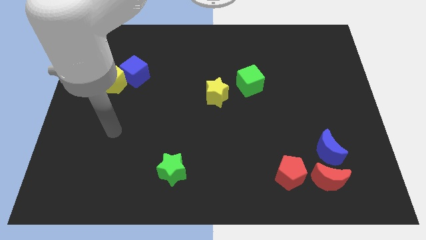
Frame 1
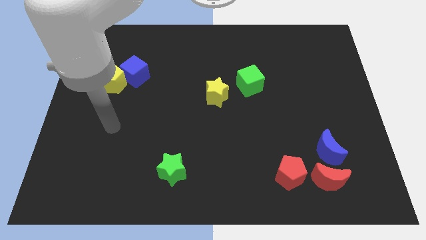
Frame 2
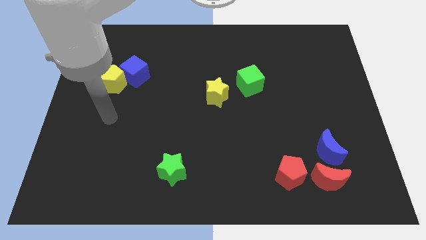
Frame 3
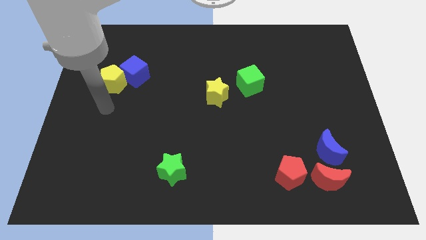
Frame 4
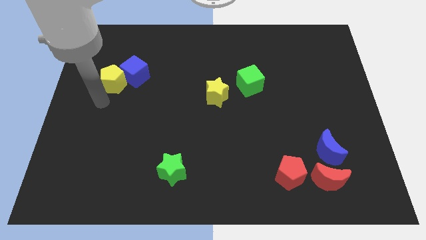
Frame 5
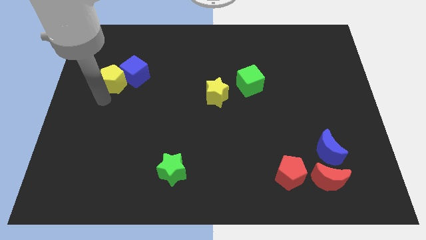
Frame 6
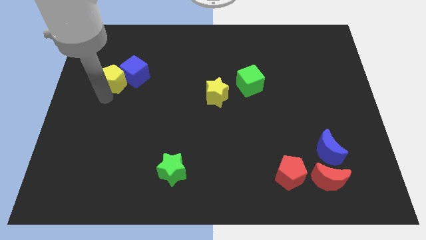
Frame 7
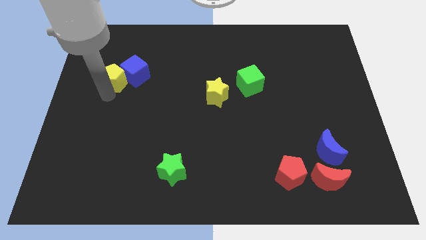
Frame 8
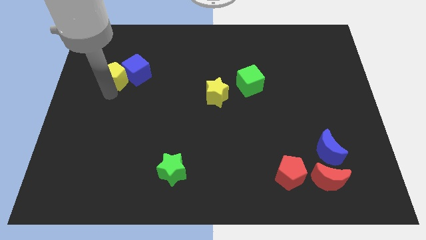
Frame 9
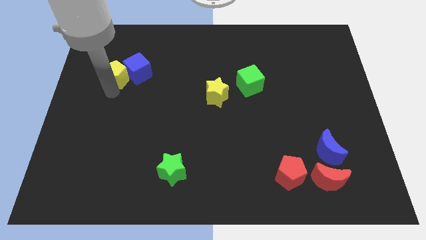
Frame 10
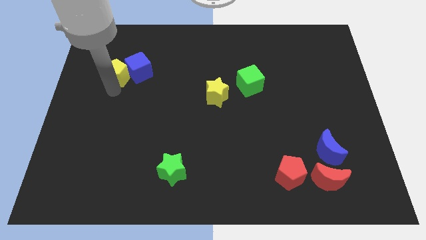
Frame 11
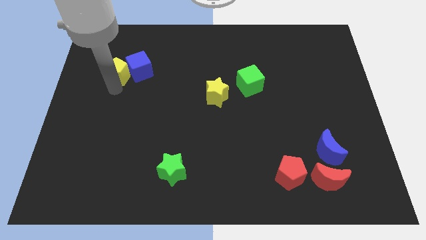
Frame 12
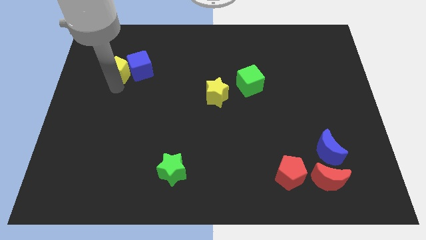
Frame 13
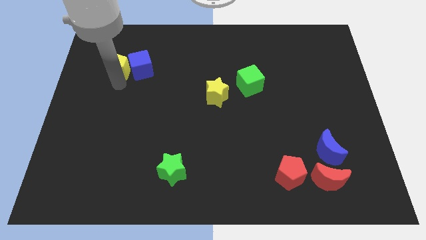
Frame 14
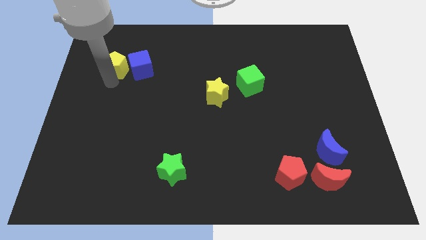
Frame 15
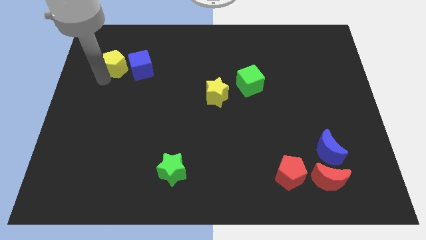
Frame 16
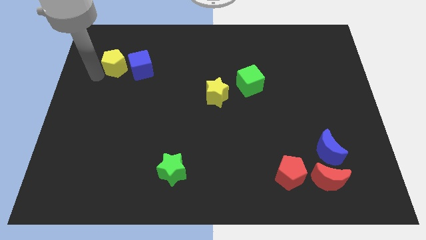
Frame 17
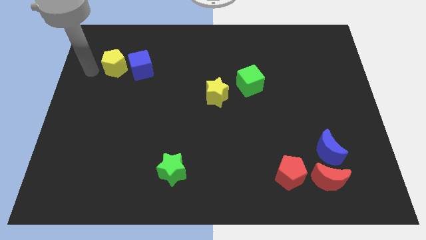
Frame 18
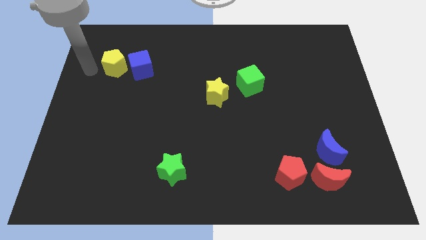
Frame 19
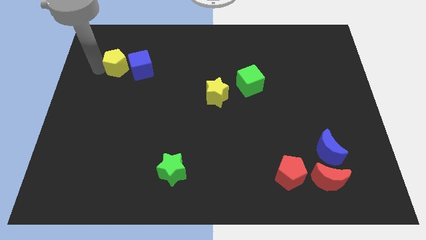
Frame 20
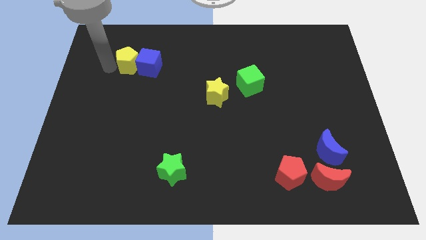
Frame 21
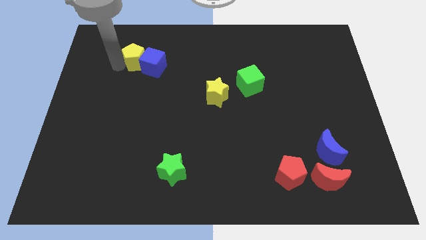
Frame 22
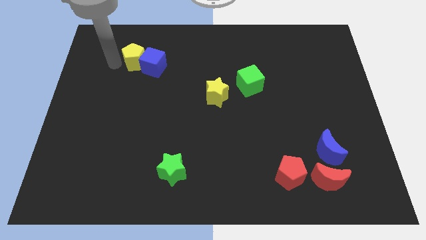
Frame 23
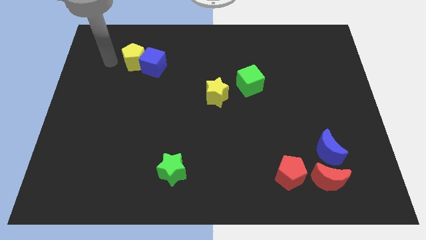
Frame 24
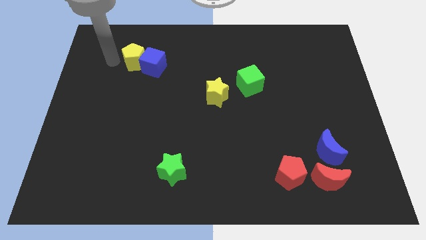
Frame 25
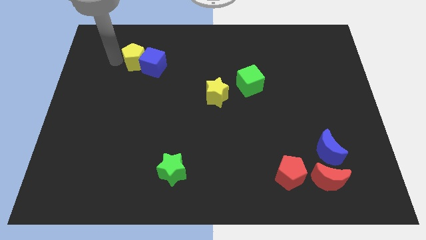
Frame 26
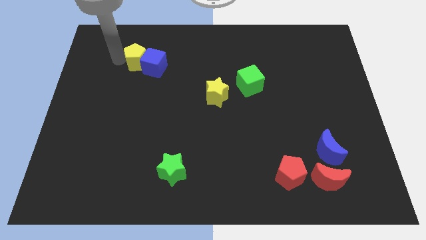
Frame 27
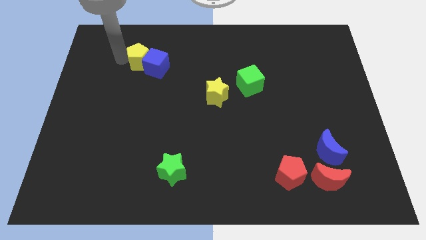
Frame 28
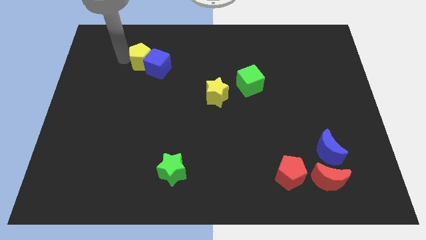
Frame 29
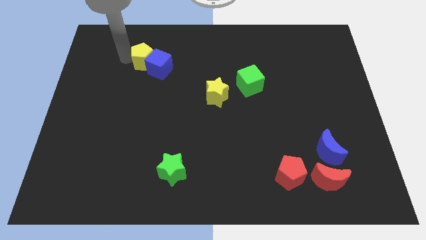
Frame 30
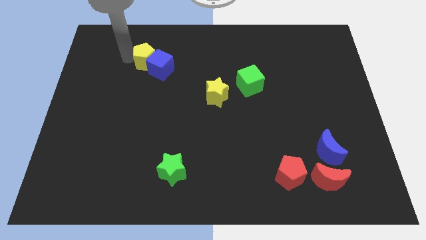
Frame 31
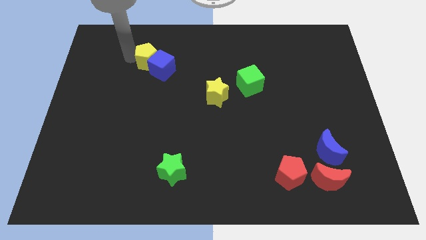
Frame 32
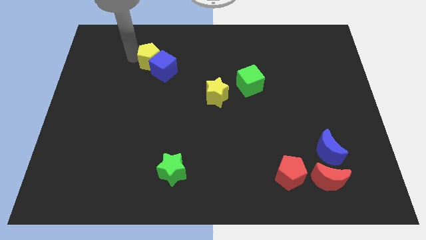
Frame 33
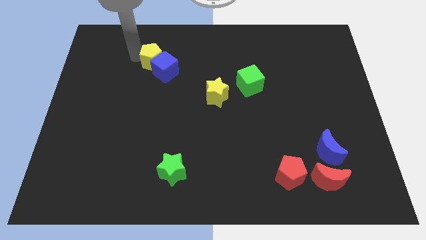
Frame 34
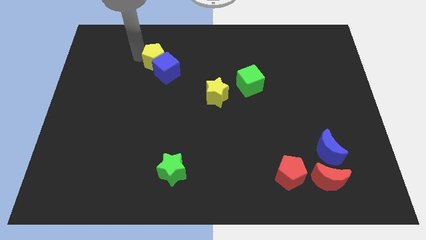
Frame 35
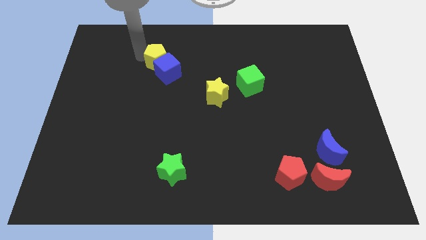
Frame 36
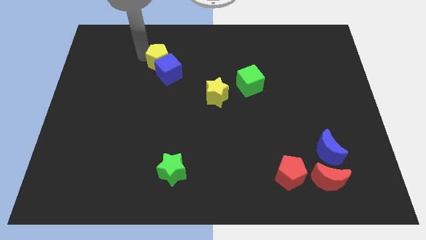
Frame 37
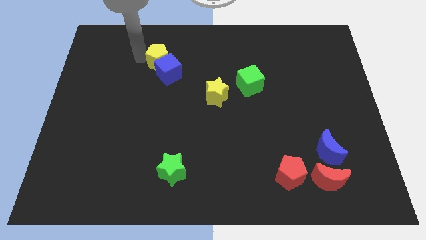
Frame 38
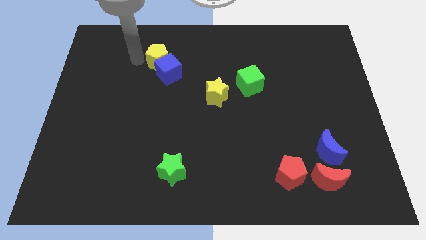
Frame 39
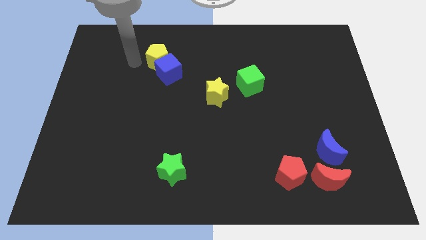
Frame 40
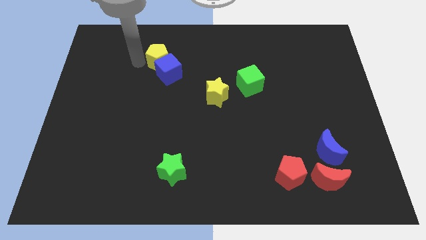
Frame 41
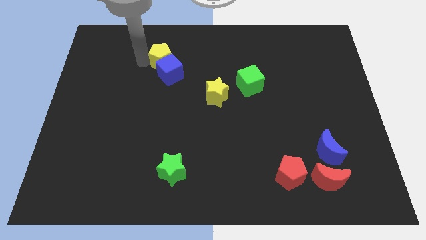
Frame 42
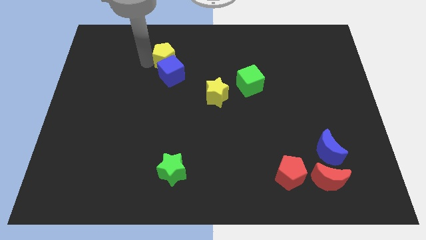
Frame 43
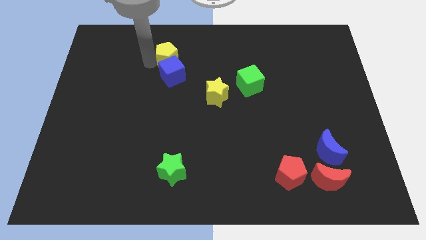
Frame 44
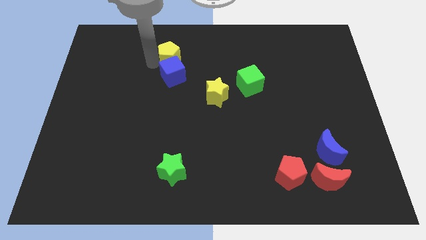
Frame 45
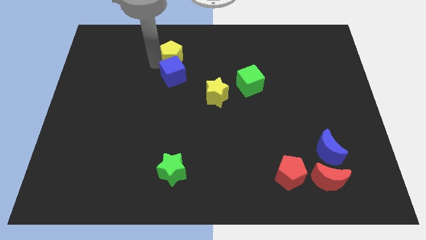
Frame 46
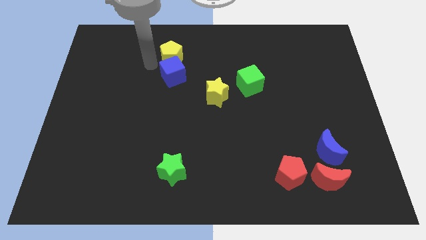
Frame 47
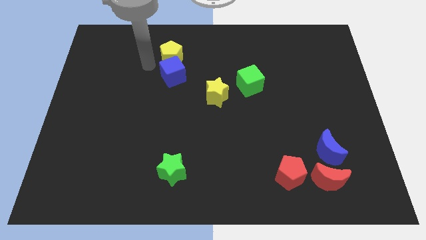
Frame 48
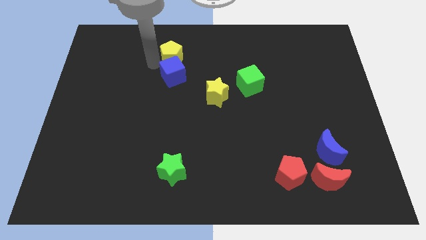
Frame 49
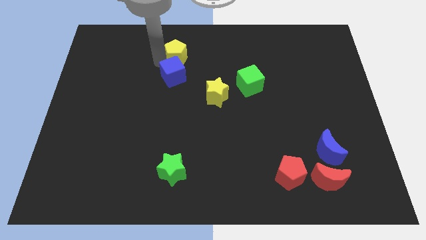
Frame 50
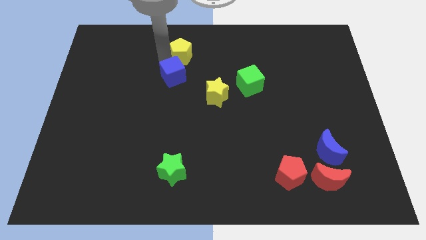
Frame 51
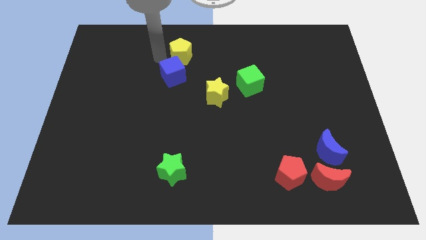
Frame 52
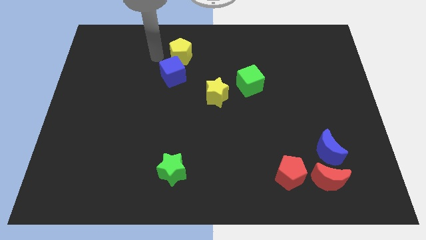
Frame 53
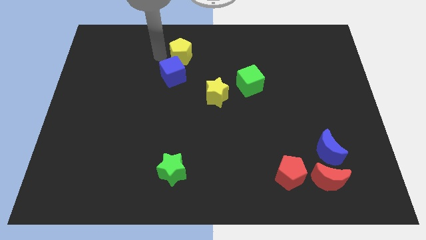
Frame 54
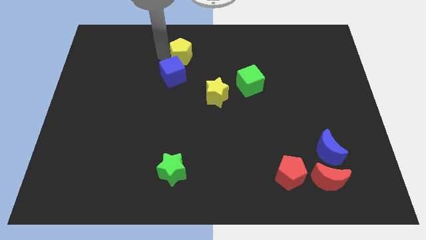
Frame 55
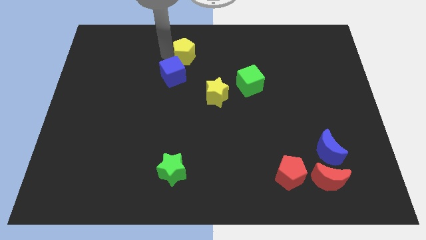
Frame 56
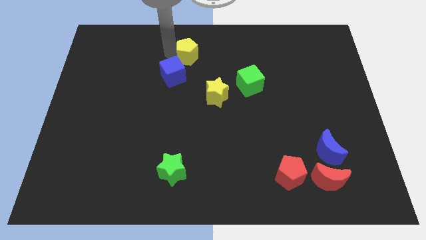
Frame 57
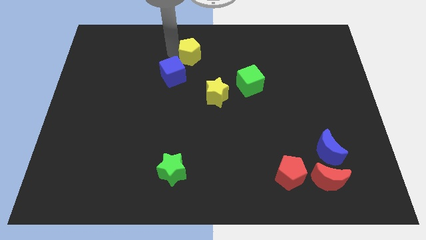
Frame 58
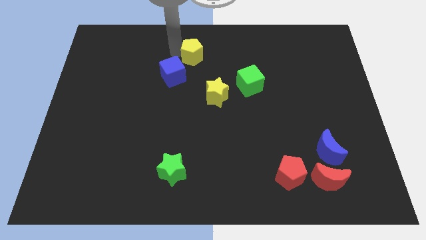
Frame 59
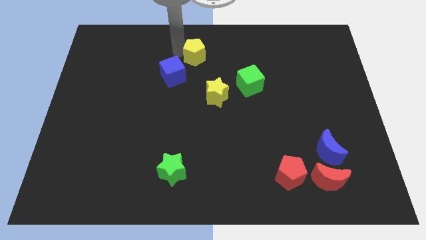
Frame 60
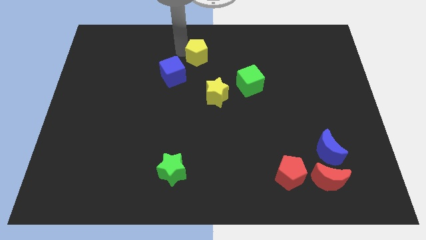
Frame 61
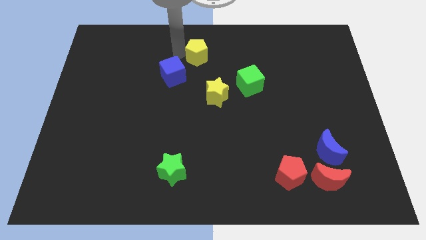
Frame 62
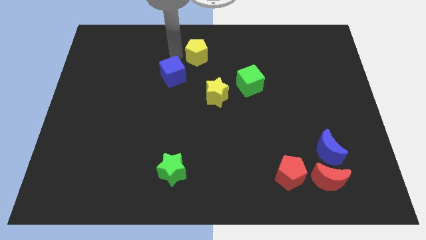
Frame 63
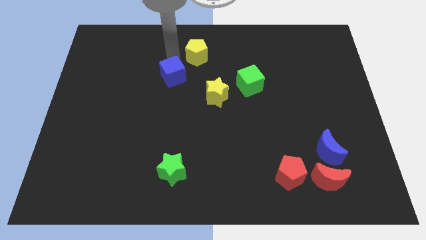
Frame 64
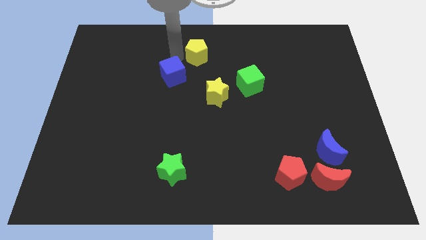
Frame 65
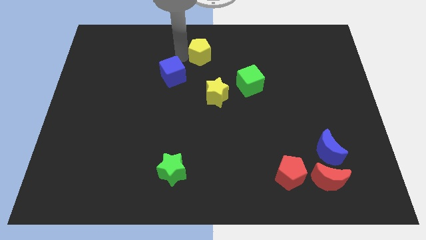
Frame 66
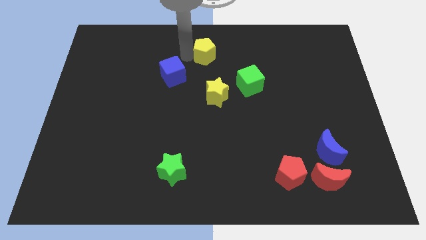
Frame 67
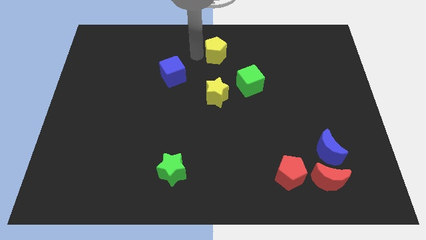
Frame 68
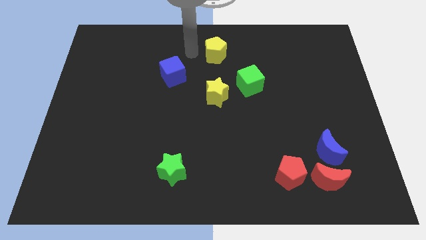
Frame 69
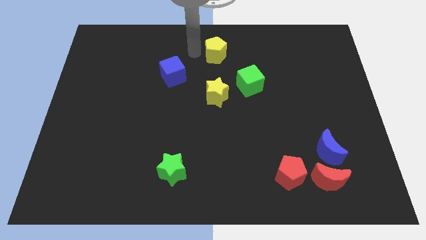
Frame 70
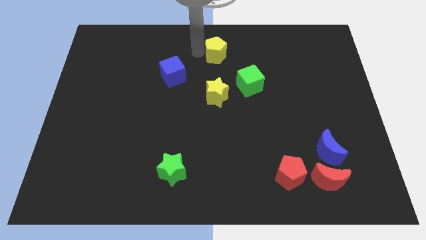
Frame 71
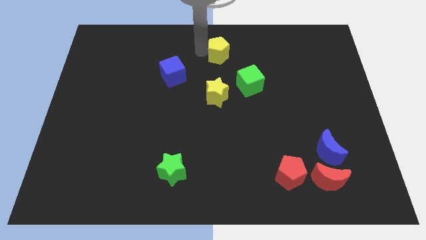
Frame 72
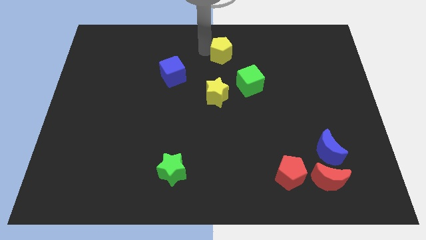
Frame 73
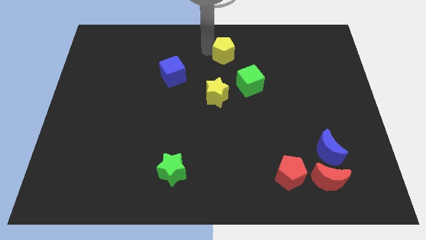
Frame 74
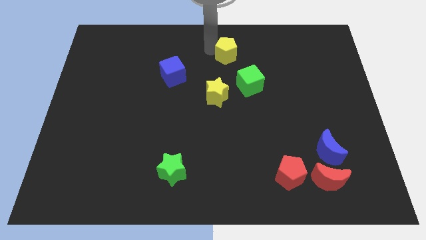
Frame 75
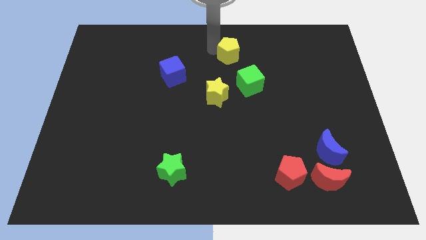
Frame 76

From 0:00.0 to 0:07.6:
move the yellow pentagon to the top side of the green cube
